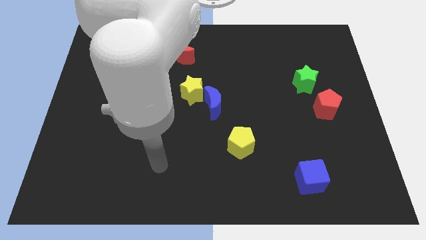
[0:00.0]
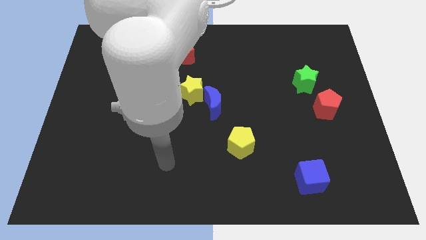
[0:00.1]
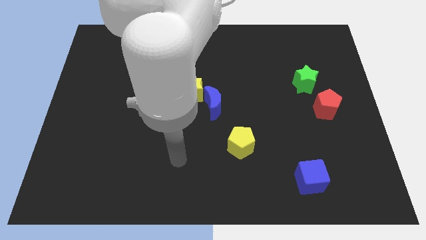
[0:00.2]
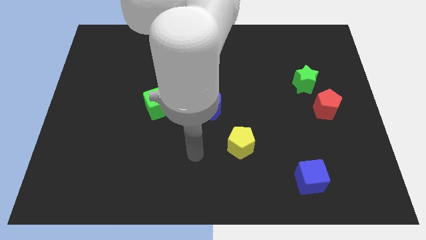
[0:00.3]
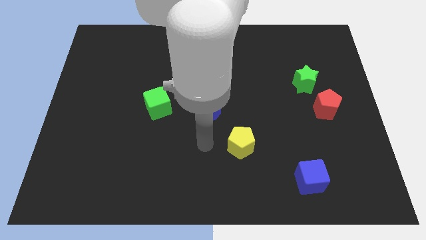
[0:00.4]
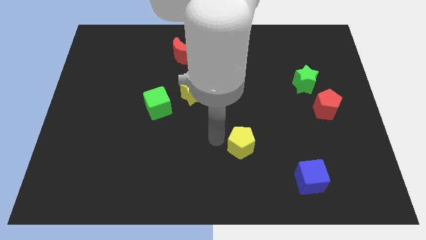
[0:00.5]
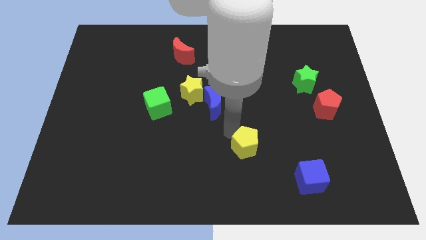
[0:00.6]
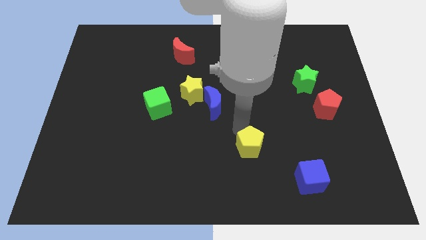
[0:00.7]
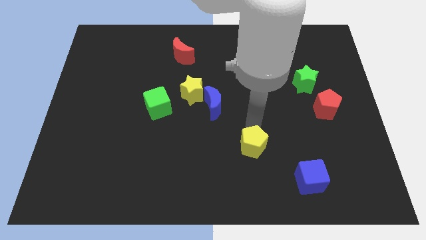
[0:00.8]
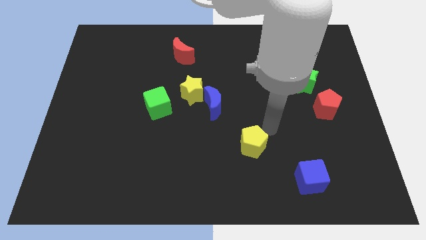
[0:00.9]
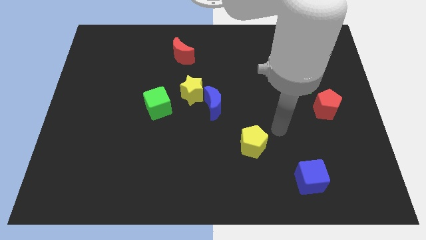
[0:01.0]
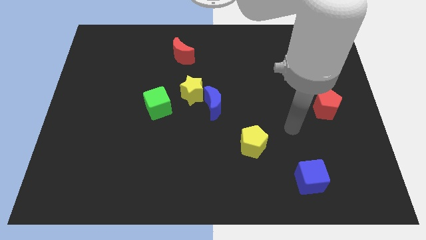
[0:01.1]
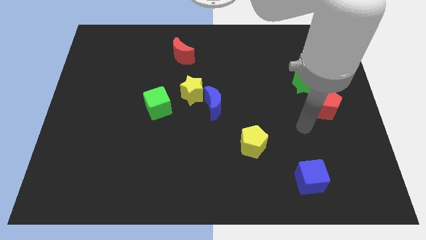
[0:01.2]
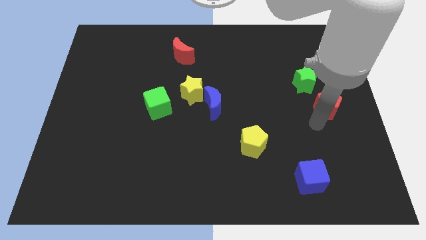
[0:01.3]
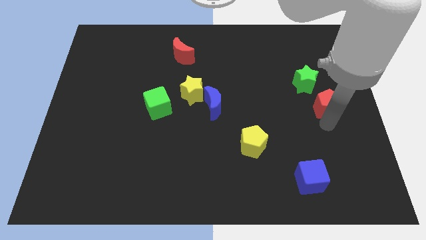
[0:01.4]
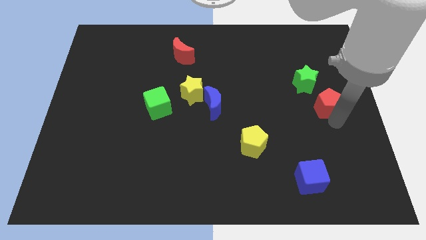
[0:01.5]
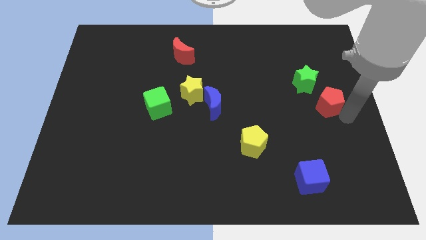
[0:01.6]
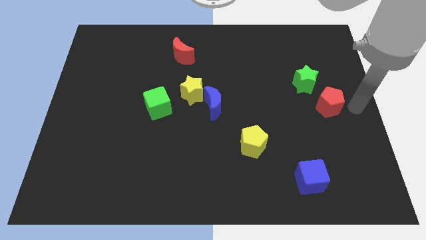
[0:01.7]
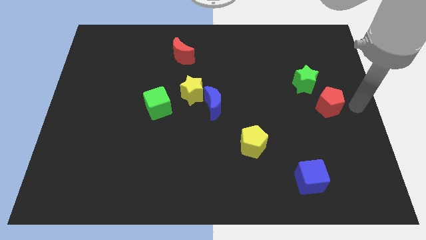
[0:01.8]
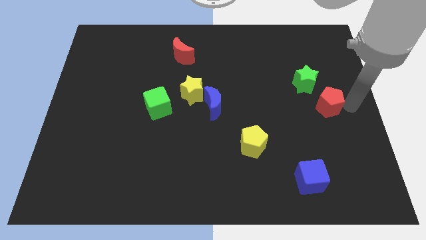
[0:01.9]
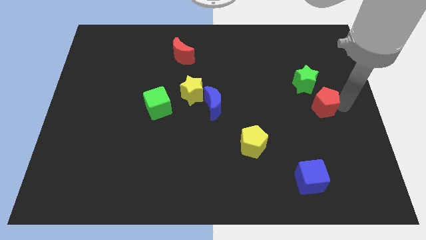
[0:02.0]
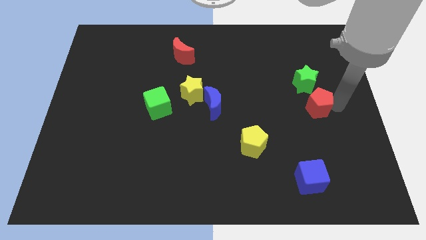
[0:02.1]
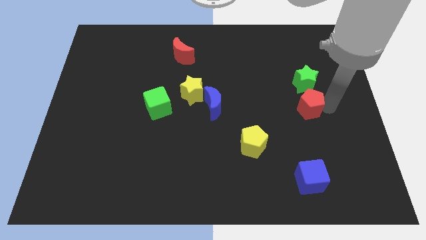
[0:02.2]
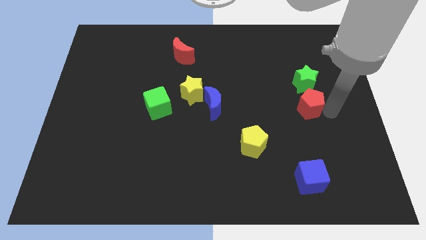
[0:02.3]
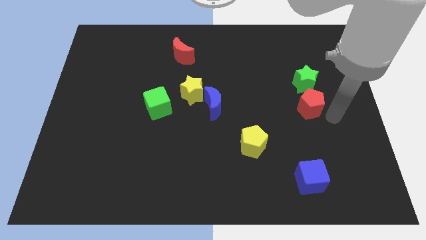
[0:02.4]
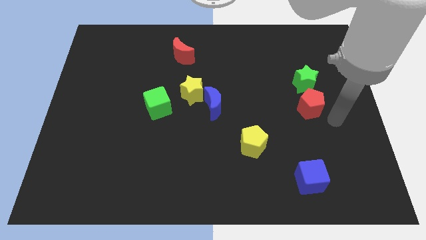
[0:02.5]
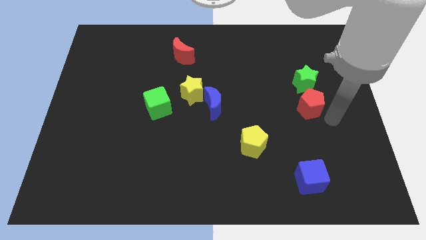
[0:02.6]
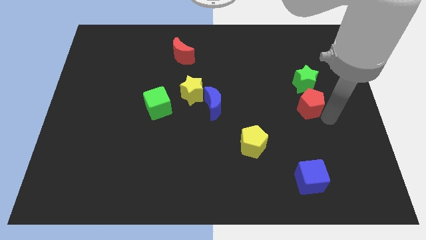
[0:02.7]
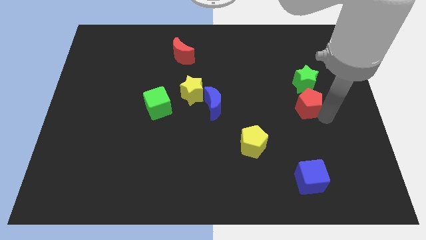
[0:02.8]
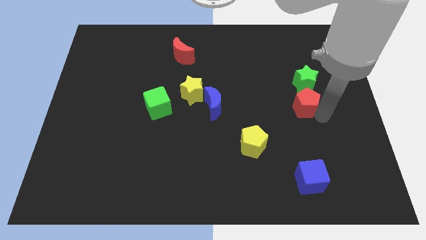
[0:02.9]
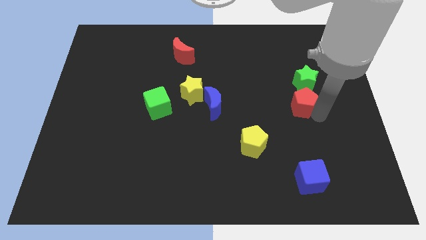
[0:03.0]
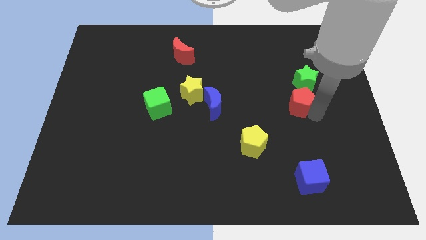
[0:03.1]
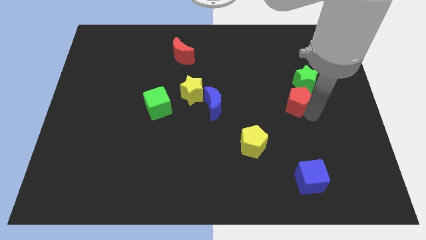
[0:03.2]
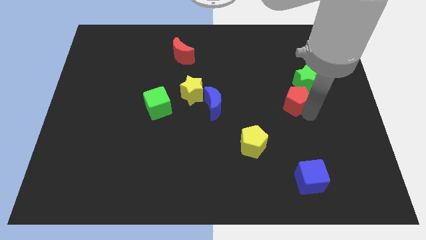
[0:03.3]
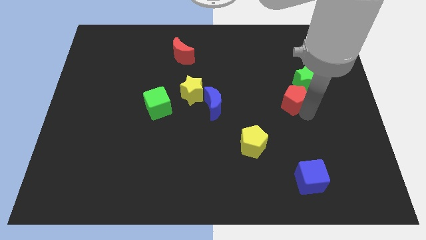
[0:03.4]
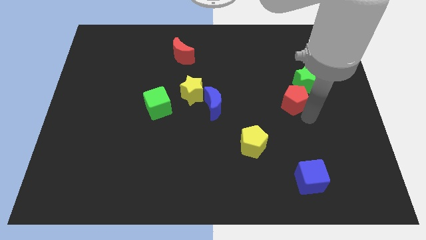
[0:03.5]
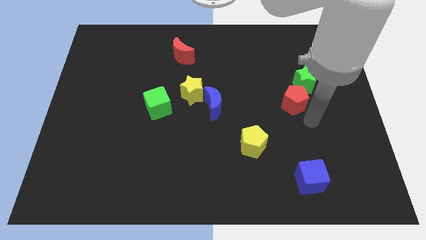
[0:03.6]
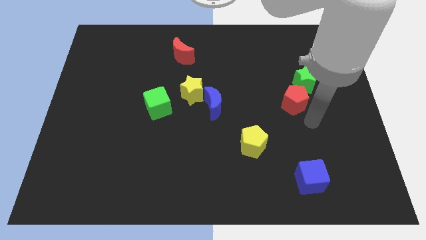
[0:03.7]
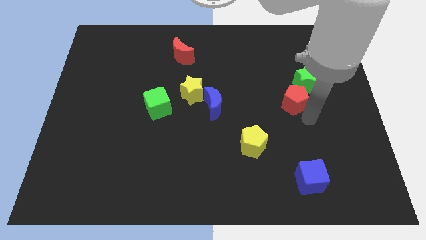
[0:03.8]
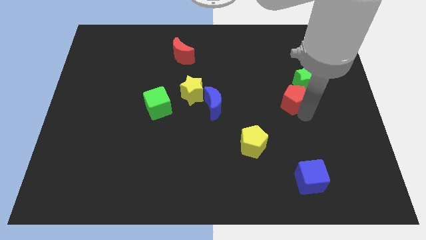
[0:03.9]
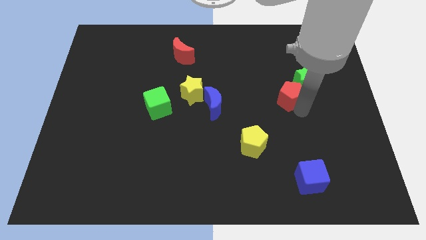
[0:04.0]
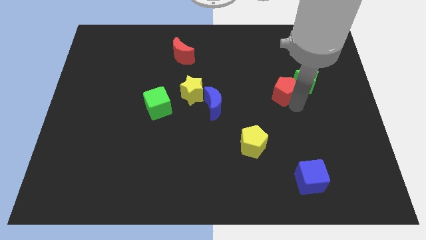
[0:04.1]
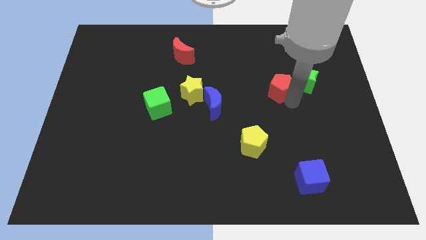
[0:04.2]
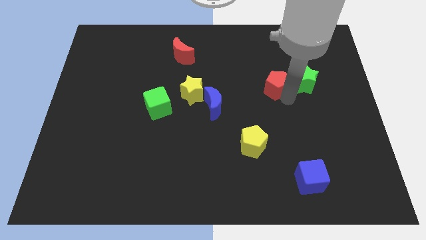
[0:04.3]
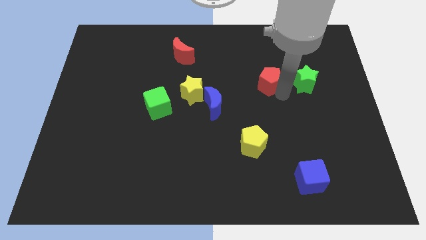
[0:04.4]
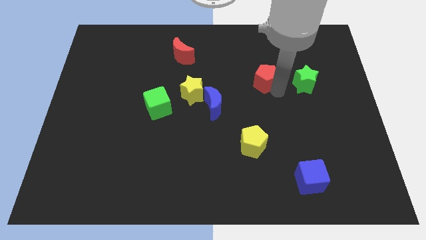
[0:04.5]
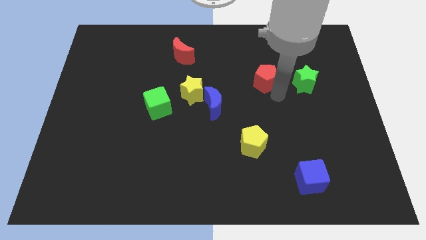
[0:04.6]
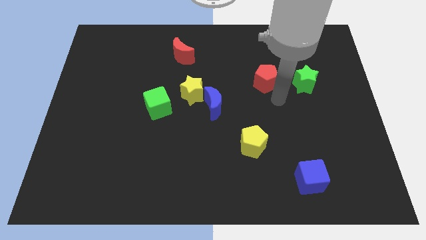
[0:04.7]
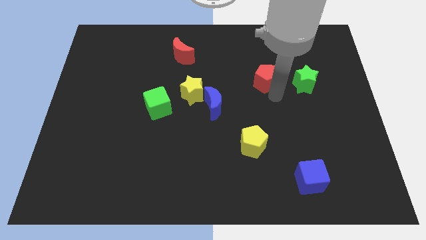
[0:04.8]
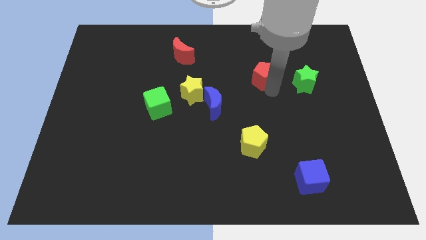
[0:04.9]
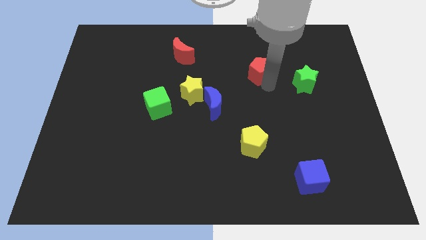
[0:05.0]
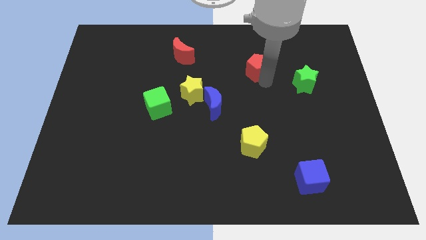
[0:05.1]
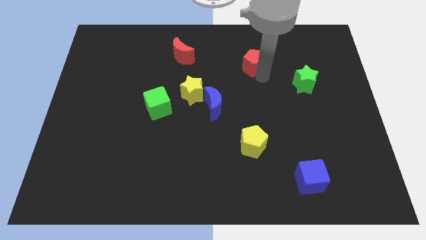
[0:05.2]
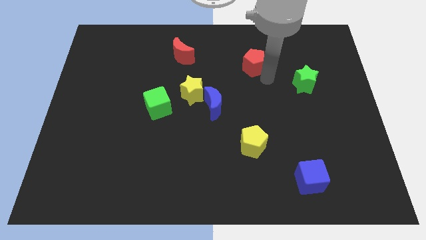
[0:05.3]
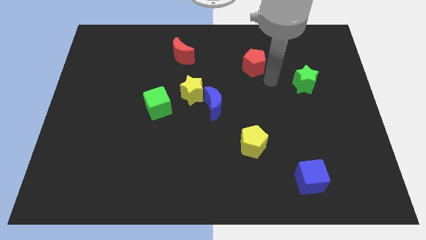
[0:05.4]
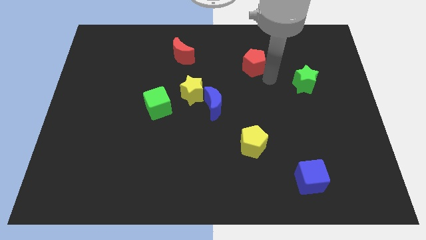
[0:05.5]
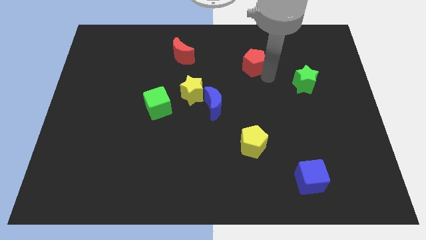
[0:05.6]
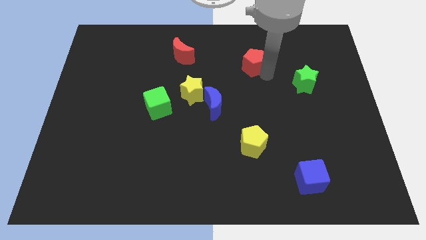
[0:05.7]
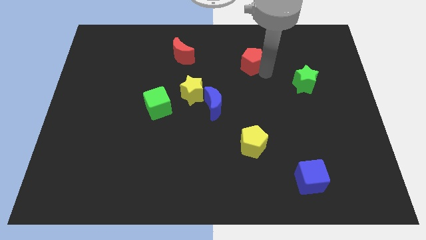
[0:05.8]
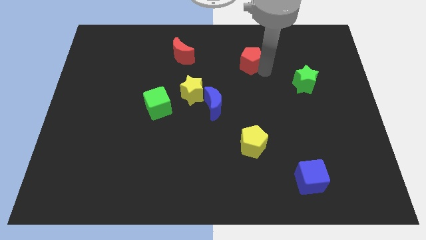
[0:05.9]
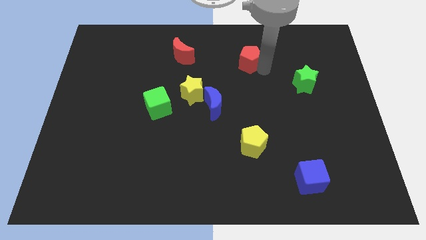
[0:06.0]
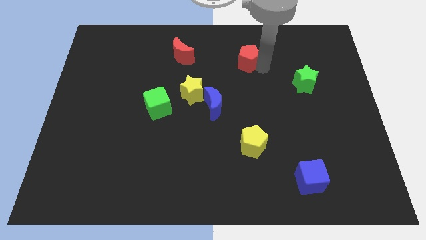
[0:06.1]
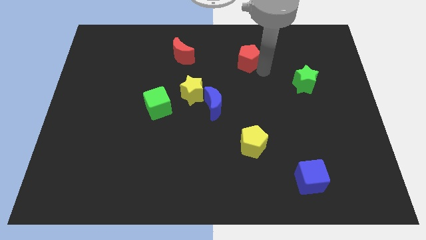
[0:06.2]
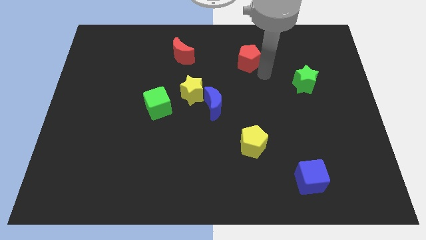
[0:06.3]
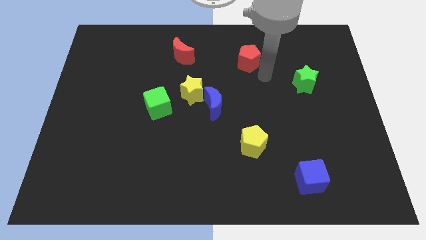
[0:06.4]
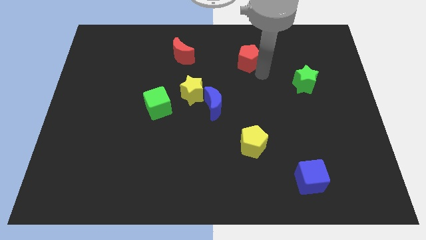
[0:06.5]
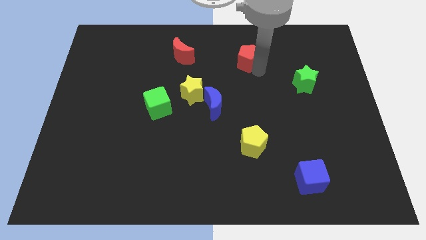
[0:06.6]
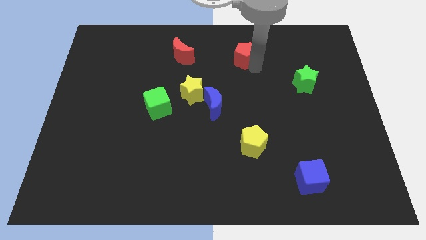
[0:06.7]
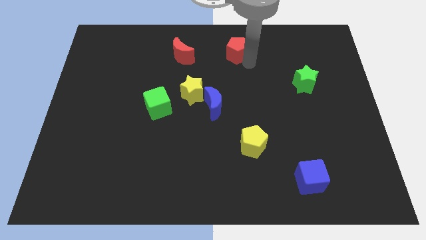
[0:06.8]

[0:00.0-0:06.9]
slide the red pentagon to the top side
